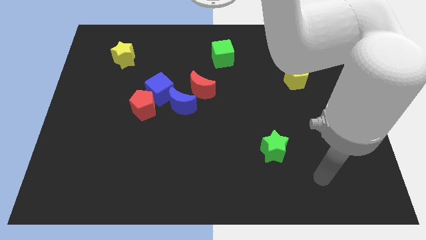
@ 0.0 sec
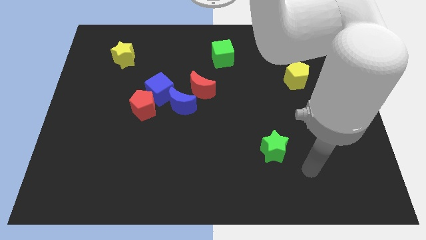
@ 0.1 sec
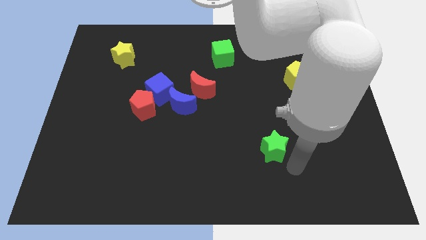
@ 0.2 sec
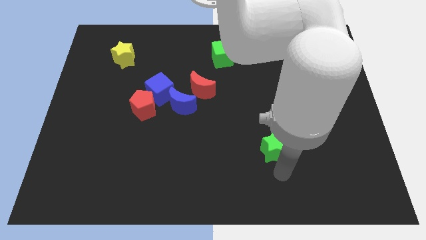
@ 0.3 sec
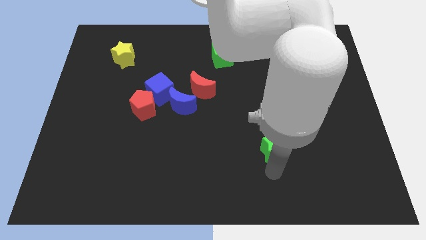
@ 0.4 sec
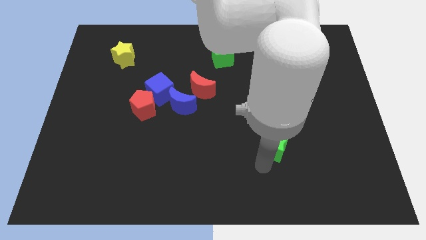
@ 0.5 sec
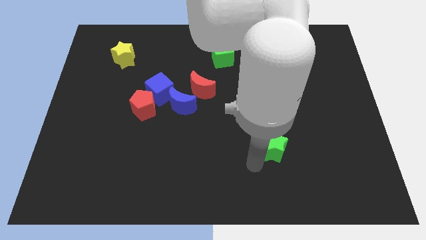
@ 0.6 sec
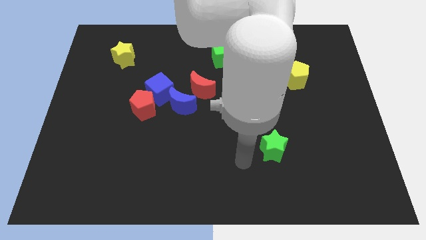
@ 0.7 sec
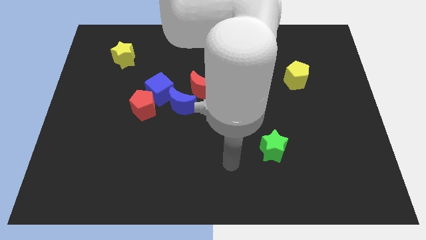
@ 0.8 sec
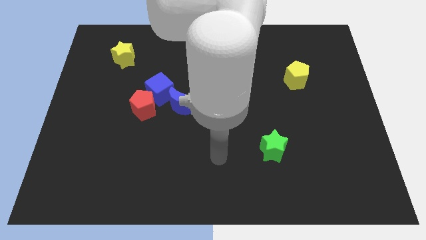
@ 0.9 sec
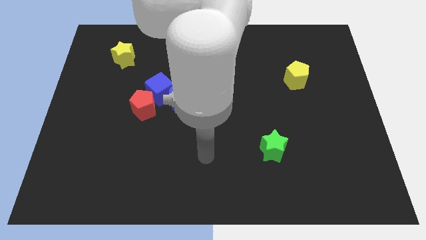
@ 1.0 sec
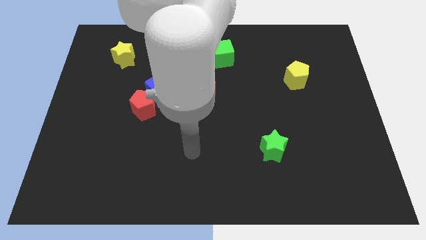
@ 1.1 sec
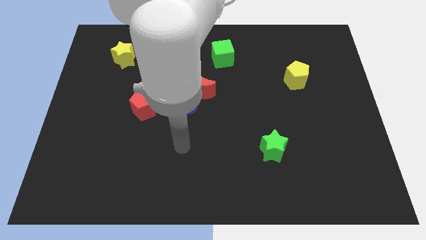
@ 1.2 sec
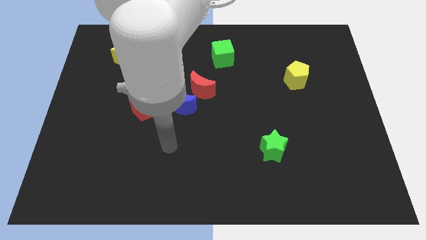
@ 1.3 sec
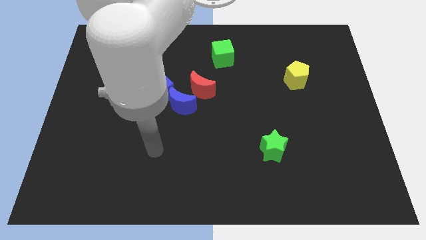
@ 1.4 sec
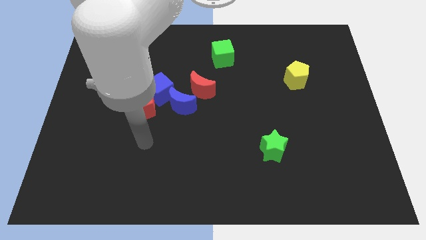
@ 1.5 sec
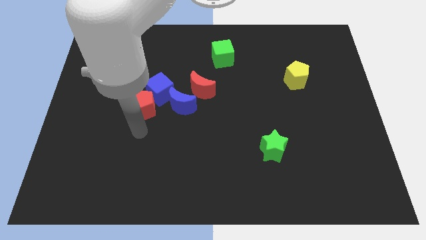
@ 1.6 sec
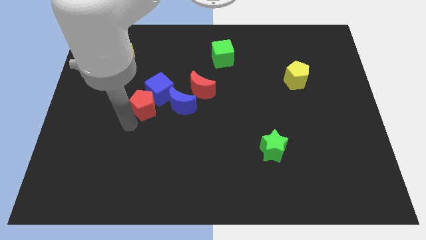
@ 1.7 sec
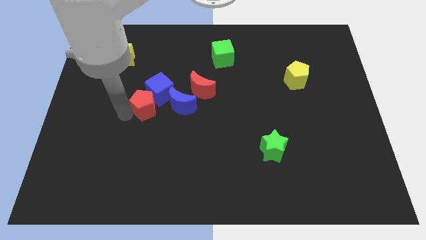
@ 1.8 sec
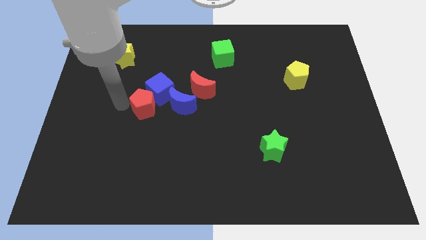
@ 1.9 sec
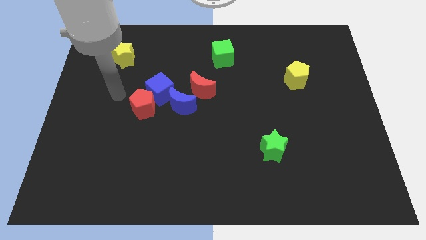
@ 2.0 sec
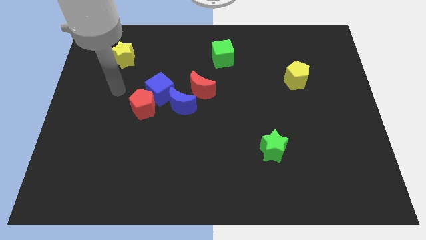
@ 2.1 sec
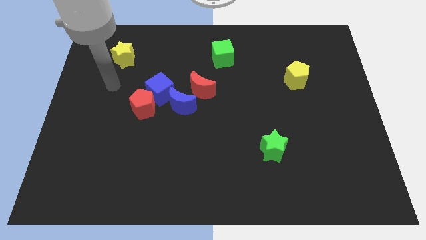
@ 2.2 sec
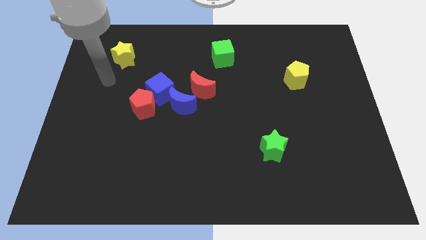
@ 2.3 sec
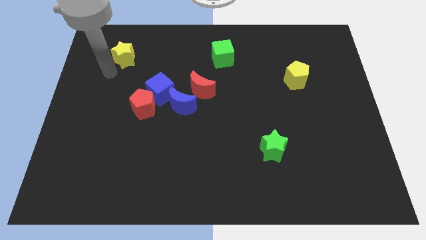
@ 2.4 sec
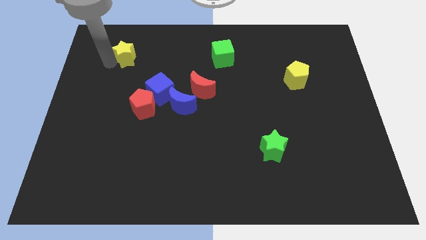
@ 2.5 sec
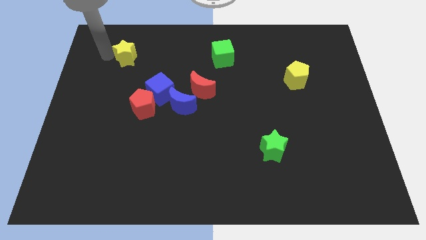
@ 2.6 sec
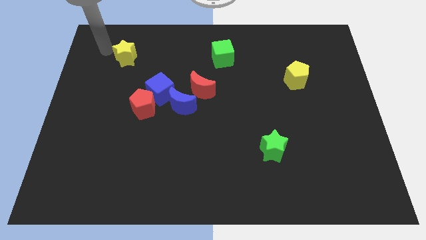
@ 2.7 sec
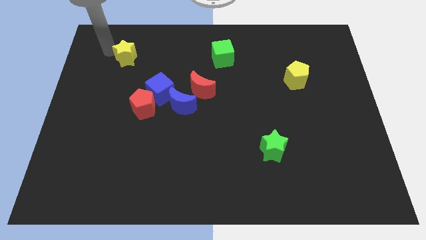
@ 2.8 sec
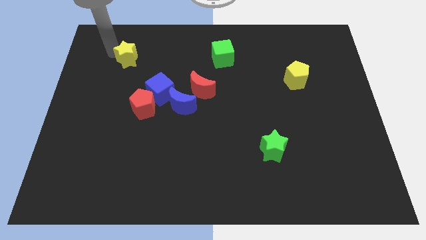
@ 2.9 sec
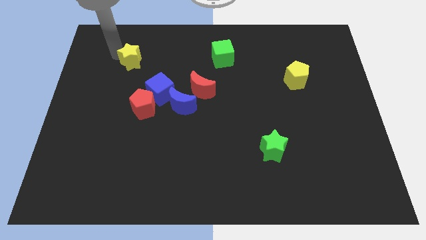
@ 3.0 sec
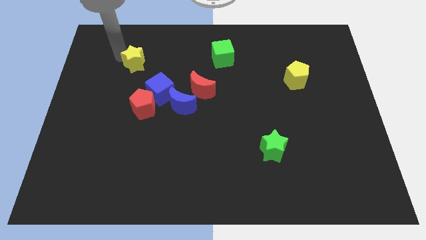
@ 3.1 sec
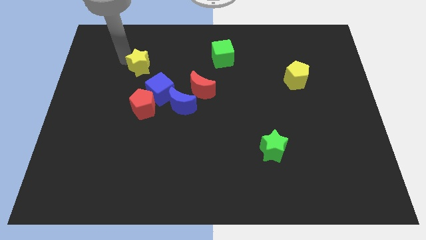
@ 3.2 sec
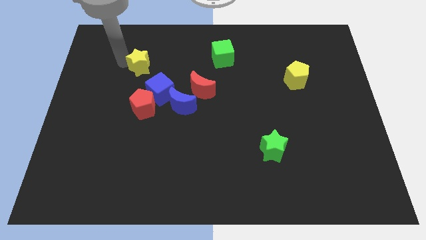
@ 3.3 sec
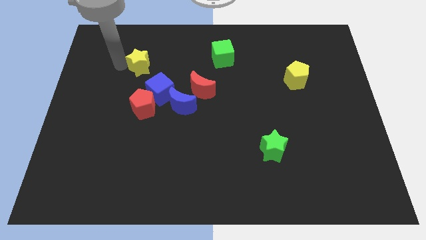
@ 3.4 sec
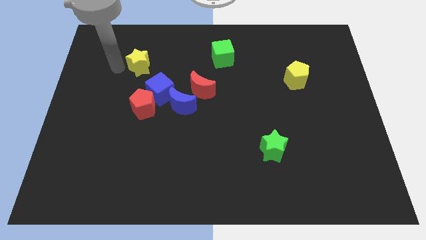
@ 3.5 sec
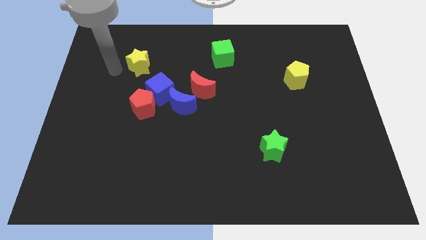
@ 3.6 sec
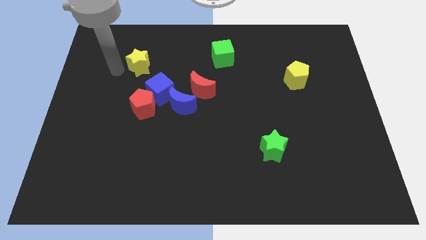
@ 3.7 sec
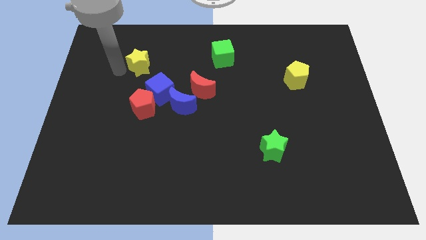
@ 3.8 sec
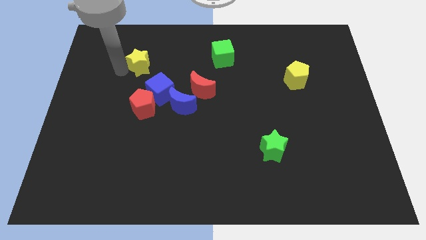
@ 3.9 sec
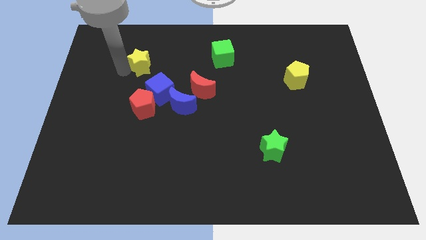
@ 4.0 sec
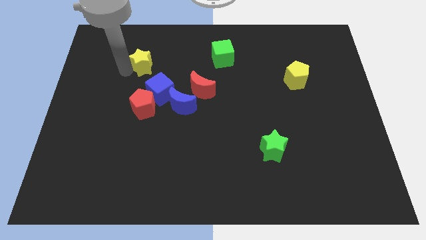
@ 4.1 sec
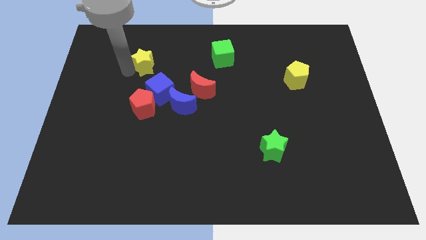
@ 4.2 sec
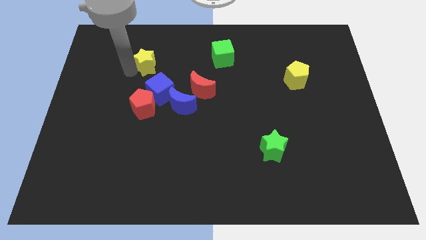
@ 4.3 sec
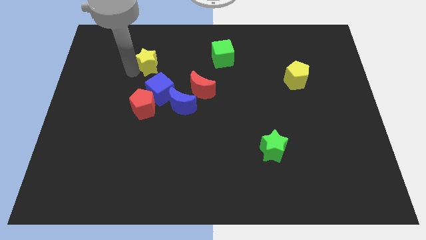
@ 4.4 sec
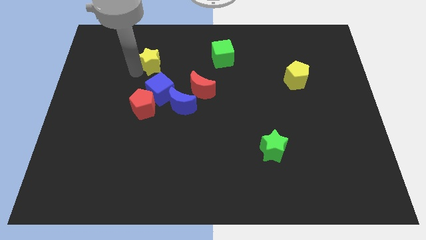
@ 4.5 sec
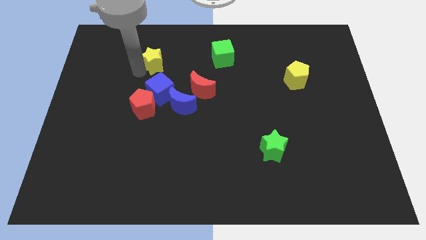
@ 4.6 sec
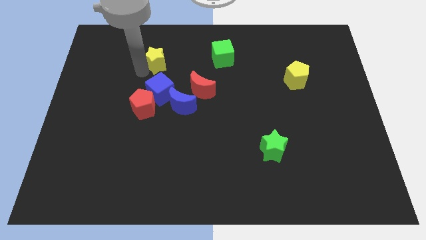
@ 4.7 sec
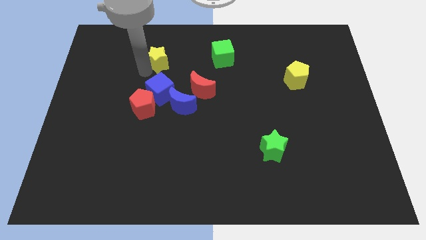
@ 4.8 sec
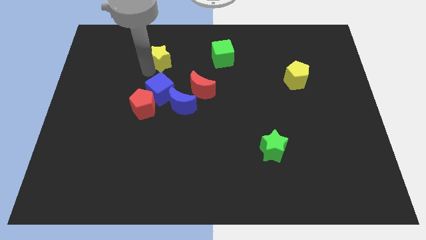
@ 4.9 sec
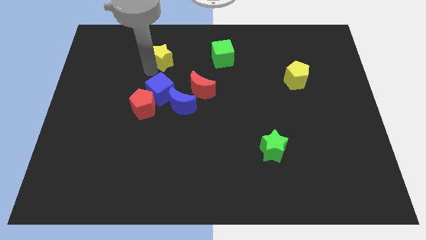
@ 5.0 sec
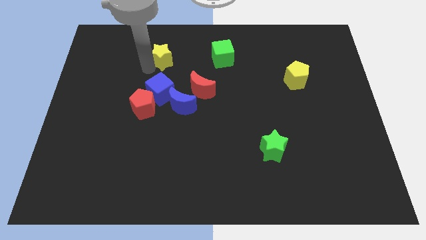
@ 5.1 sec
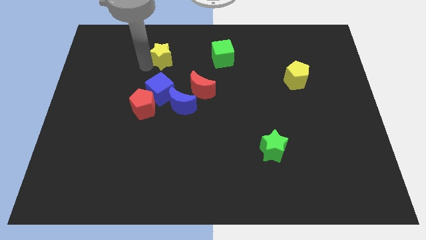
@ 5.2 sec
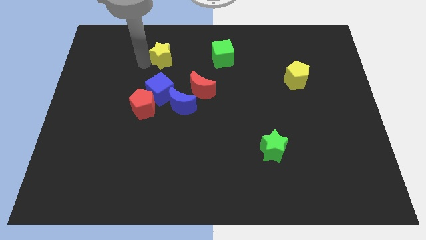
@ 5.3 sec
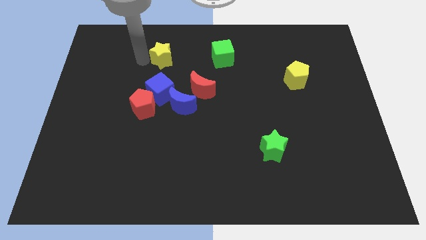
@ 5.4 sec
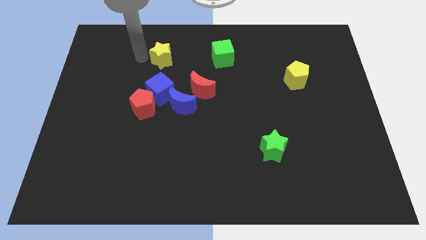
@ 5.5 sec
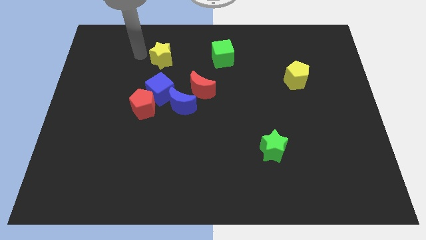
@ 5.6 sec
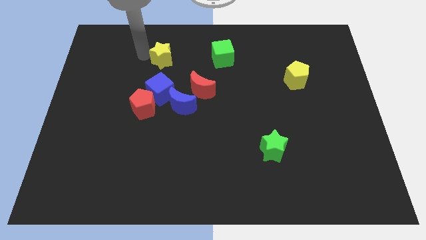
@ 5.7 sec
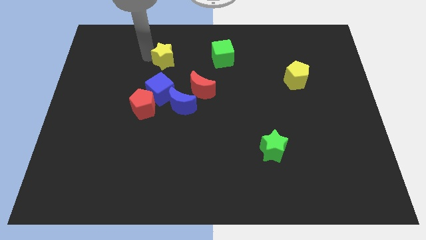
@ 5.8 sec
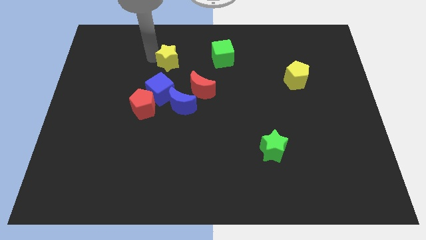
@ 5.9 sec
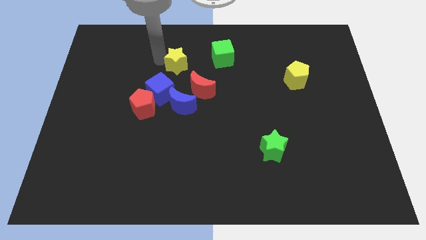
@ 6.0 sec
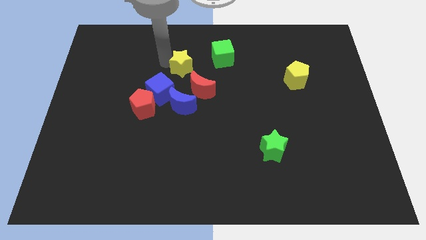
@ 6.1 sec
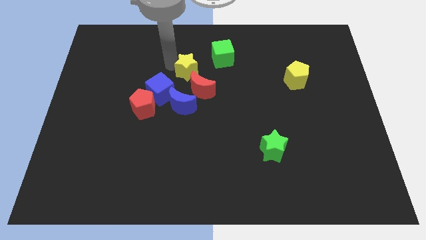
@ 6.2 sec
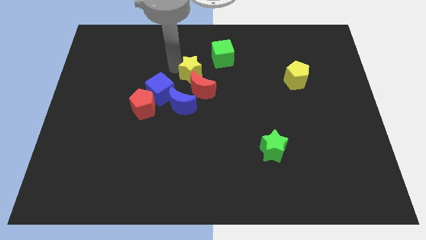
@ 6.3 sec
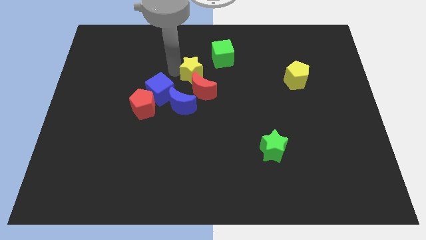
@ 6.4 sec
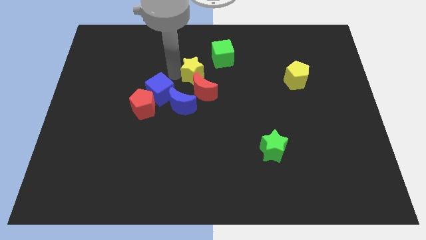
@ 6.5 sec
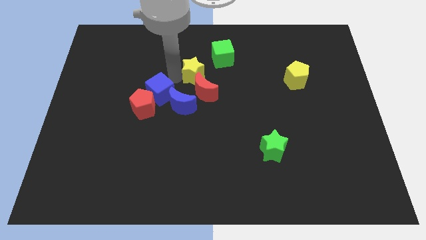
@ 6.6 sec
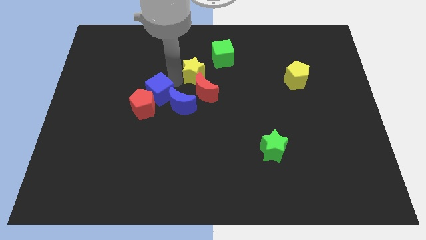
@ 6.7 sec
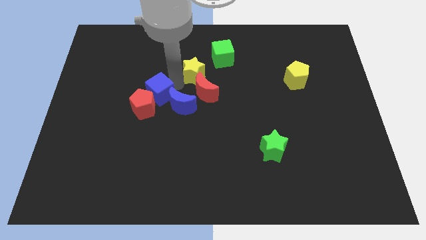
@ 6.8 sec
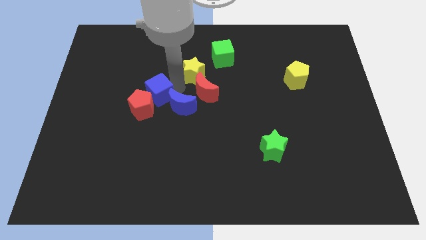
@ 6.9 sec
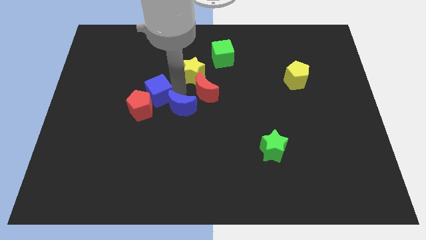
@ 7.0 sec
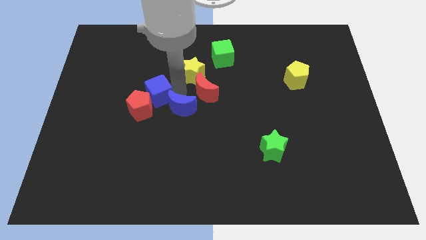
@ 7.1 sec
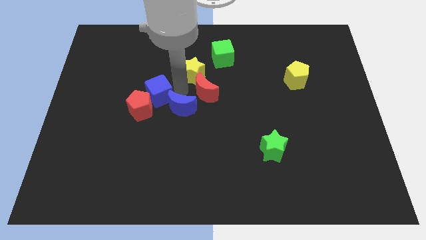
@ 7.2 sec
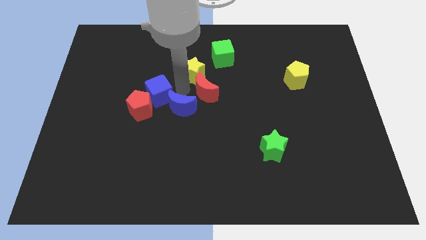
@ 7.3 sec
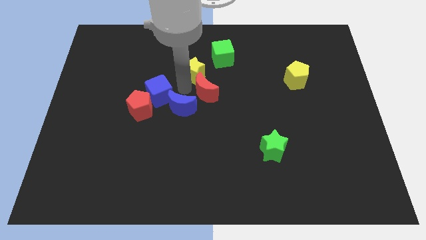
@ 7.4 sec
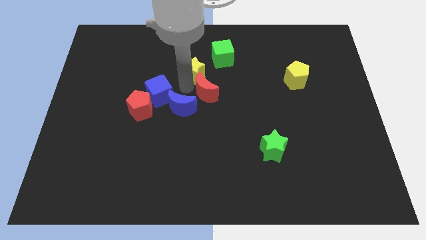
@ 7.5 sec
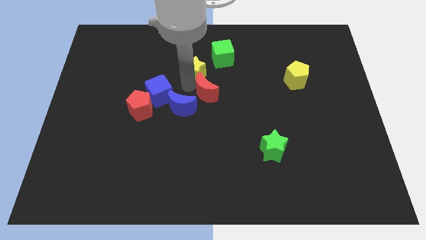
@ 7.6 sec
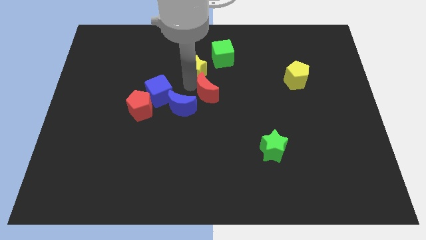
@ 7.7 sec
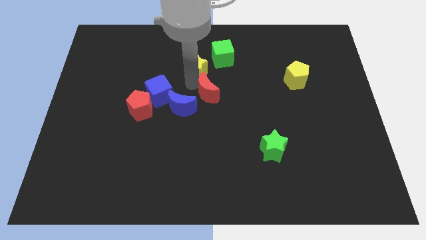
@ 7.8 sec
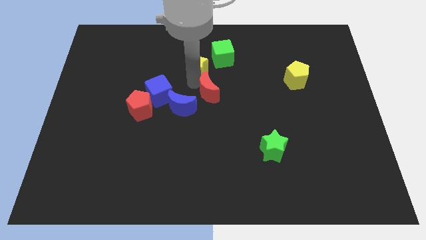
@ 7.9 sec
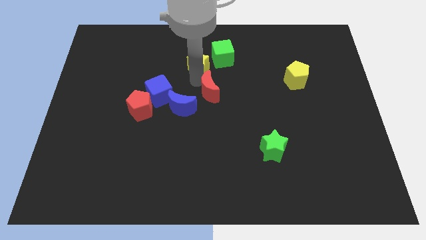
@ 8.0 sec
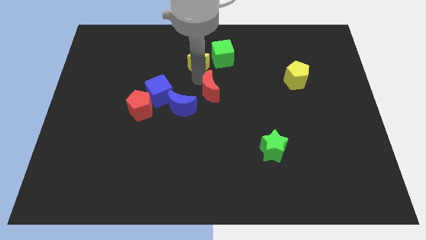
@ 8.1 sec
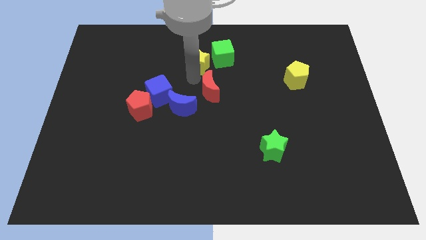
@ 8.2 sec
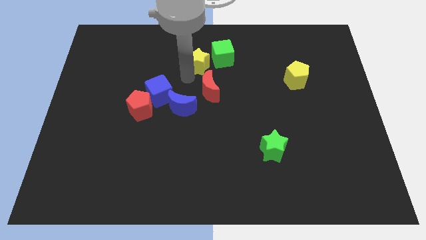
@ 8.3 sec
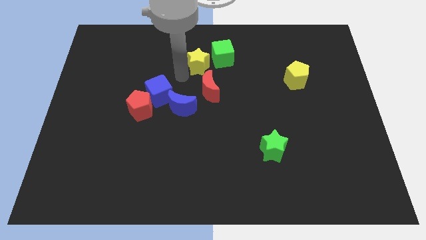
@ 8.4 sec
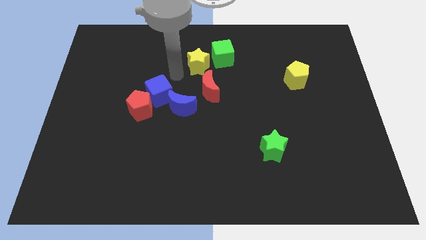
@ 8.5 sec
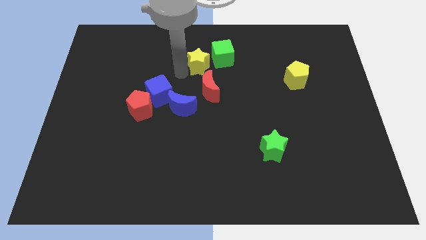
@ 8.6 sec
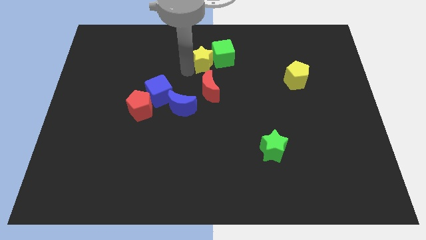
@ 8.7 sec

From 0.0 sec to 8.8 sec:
push the yellow star close to the green cube
